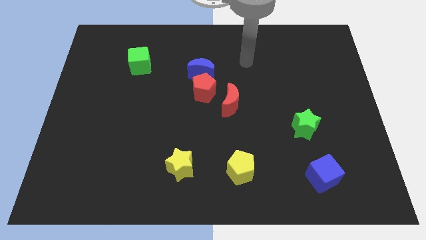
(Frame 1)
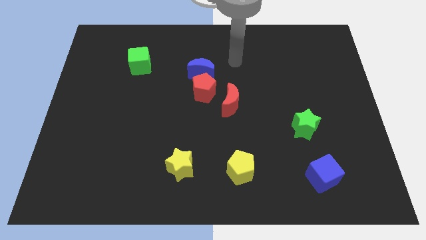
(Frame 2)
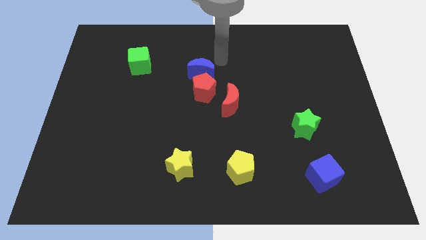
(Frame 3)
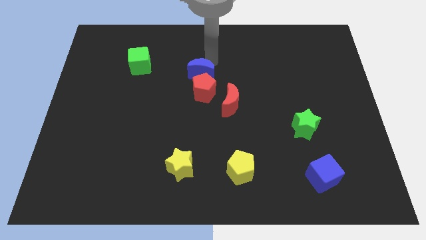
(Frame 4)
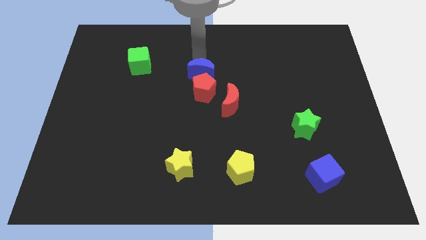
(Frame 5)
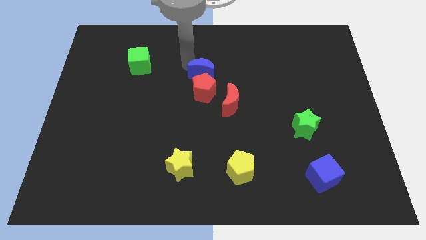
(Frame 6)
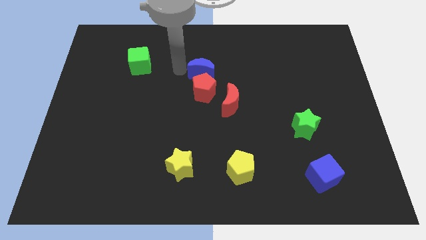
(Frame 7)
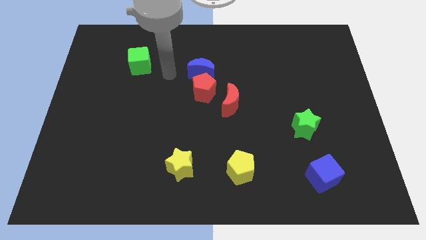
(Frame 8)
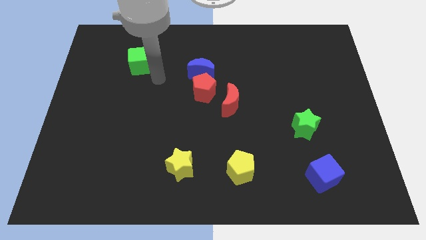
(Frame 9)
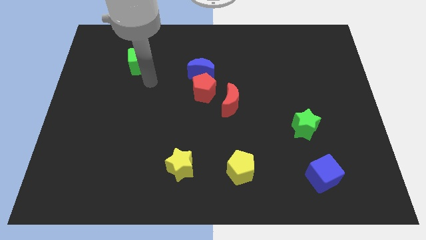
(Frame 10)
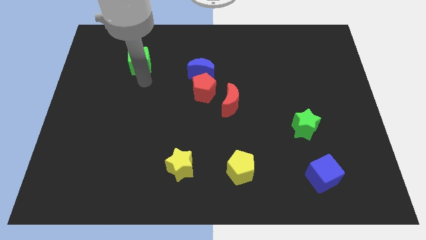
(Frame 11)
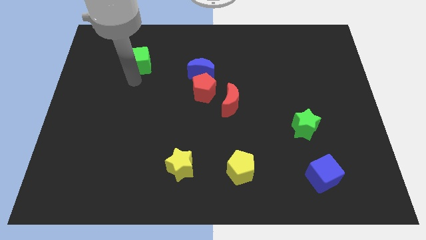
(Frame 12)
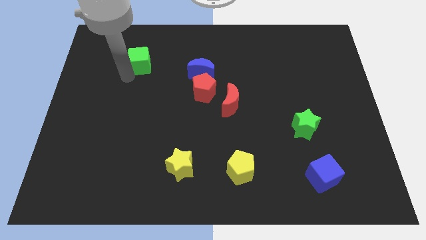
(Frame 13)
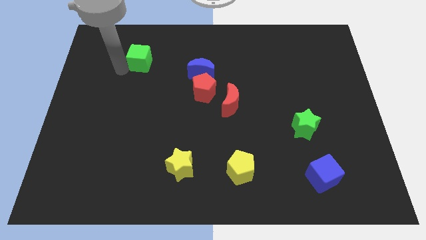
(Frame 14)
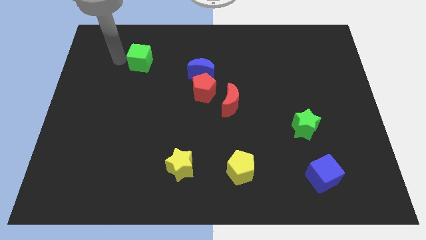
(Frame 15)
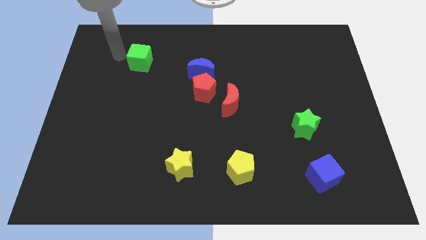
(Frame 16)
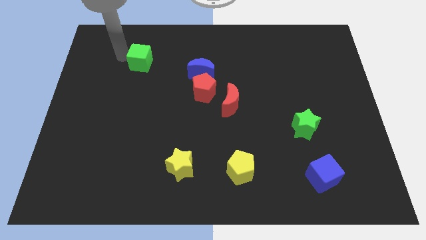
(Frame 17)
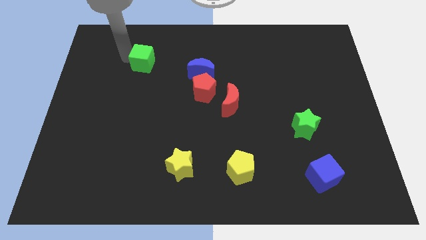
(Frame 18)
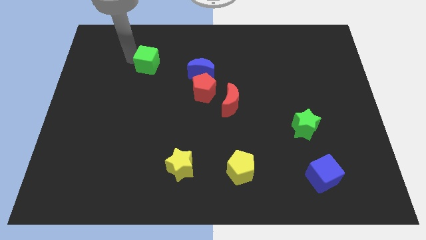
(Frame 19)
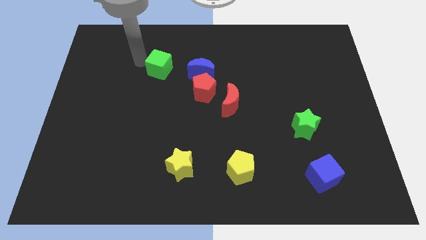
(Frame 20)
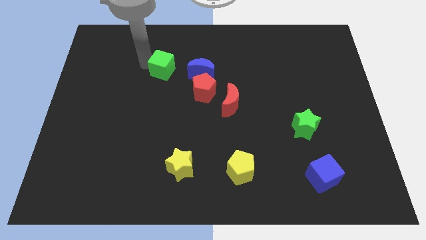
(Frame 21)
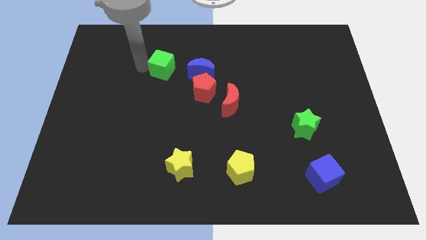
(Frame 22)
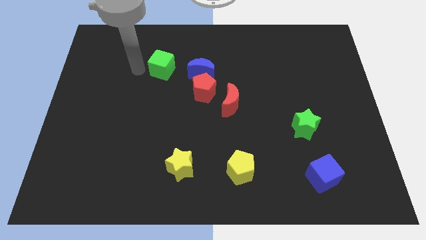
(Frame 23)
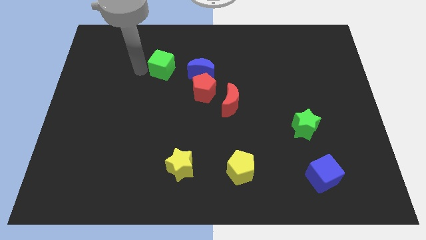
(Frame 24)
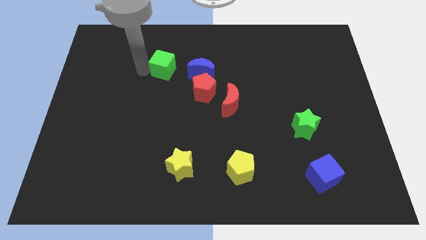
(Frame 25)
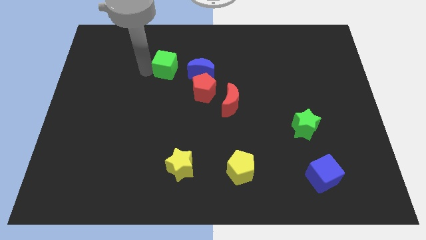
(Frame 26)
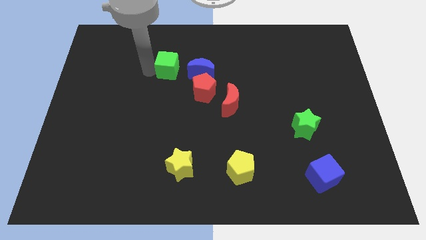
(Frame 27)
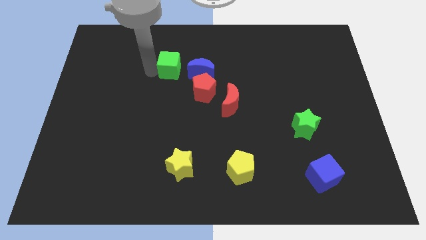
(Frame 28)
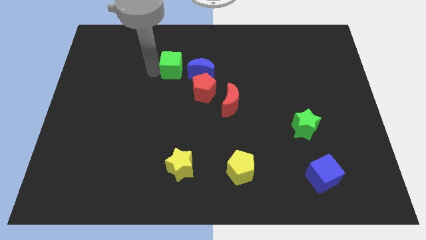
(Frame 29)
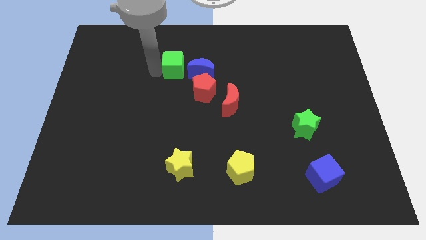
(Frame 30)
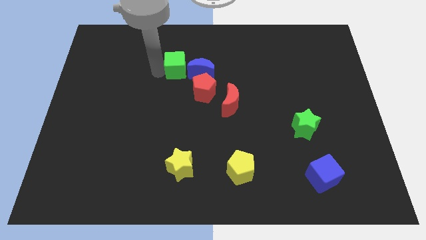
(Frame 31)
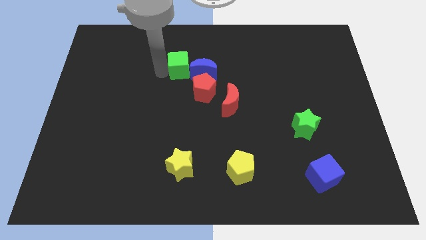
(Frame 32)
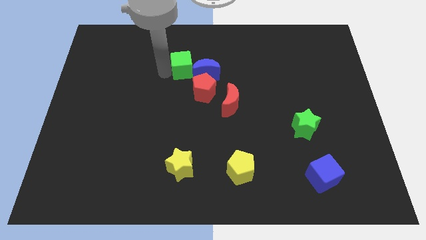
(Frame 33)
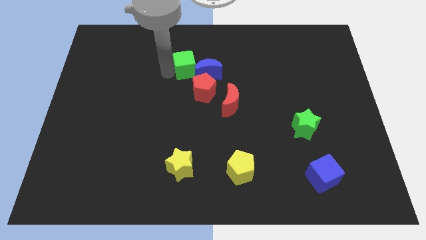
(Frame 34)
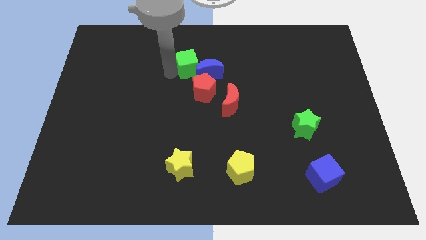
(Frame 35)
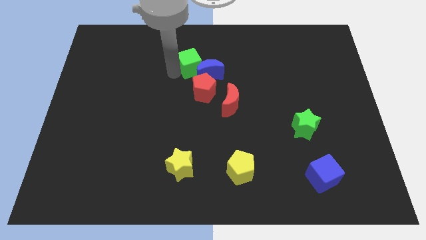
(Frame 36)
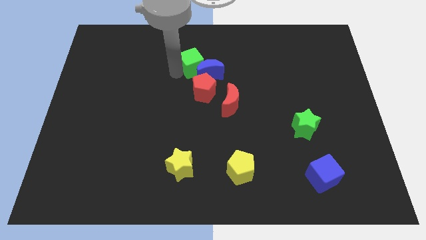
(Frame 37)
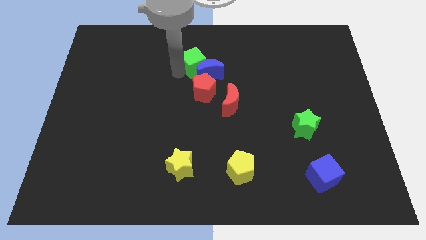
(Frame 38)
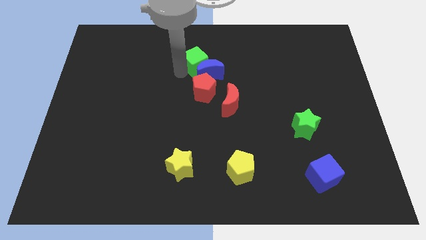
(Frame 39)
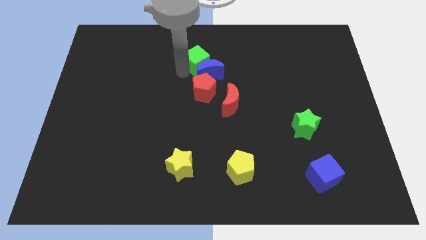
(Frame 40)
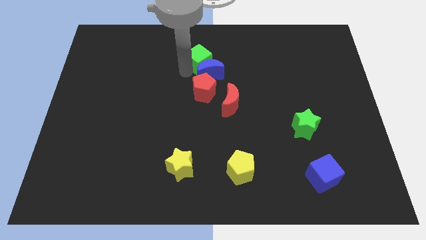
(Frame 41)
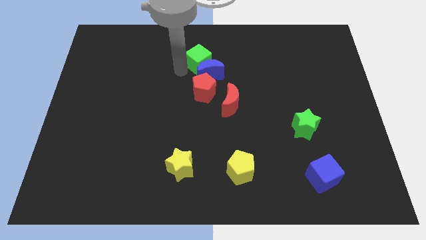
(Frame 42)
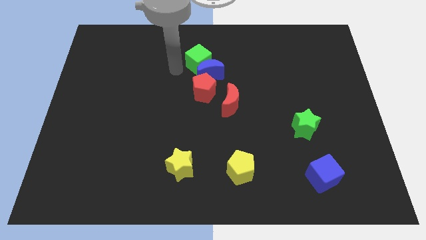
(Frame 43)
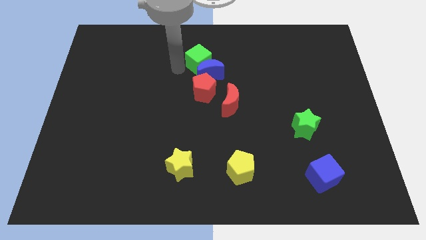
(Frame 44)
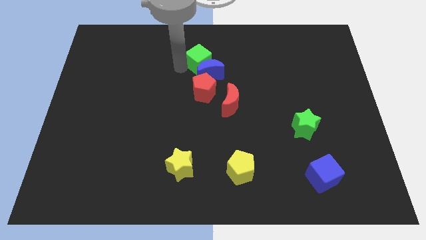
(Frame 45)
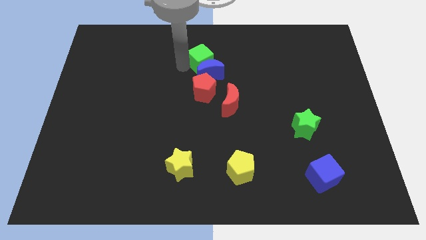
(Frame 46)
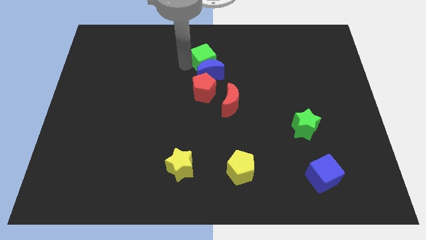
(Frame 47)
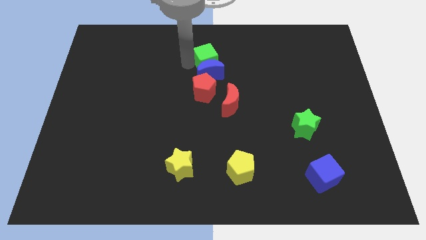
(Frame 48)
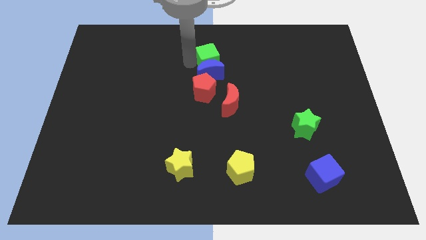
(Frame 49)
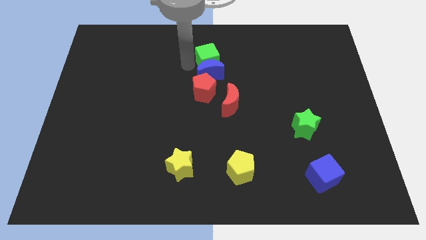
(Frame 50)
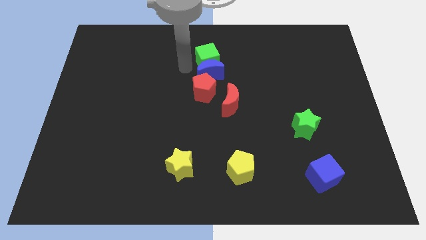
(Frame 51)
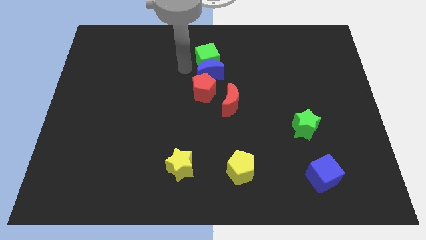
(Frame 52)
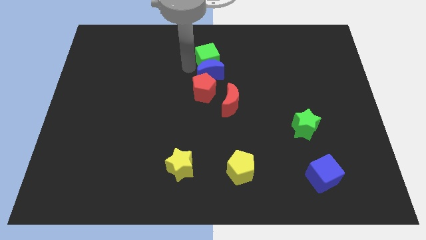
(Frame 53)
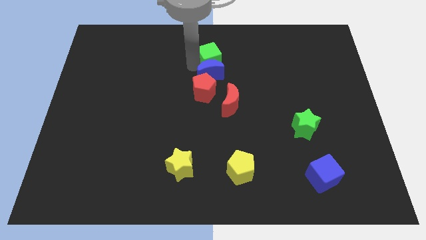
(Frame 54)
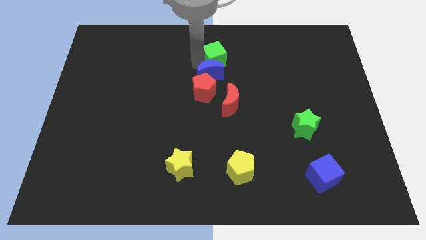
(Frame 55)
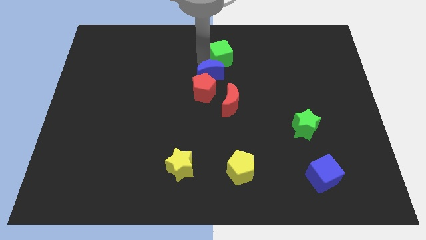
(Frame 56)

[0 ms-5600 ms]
move the green cube to the right

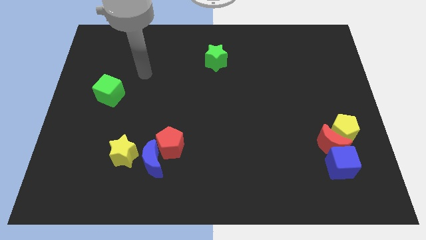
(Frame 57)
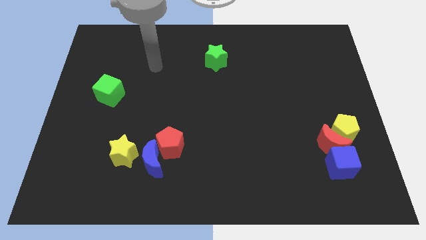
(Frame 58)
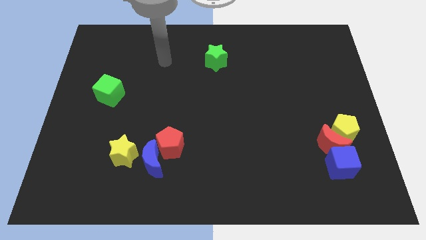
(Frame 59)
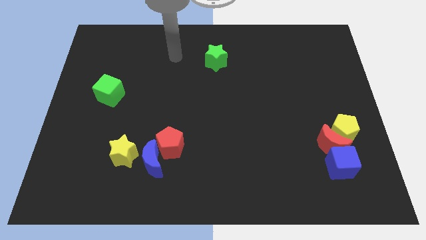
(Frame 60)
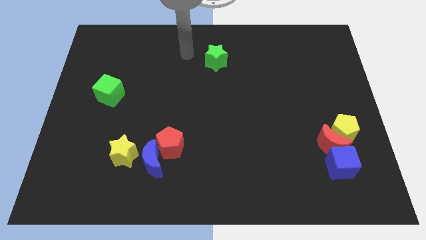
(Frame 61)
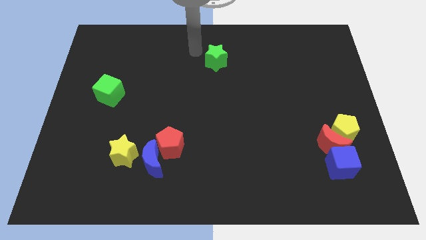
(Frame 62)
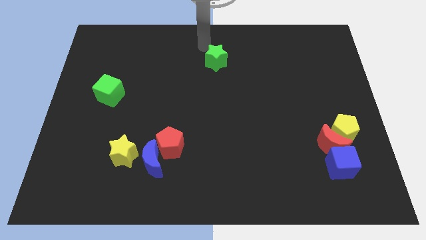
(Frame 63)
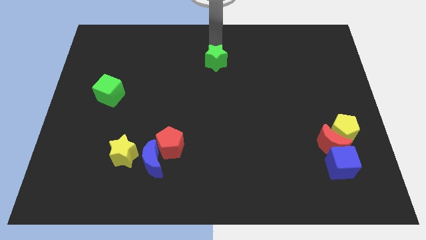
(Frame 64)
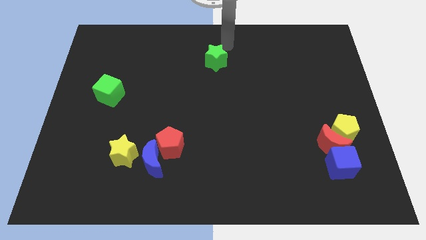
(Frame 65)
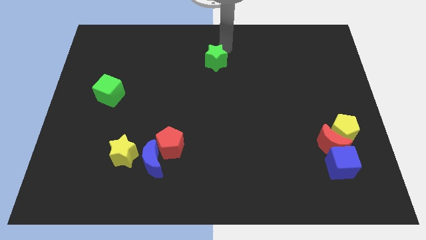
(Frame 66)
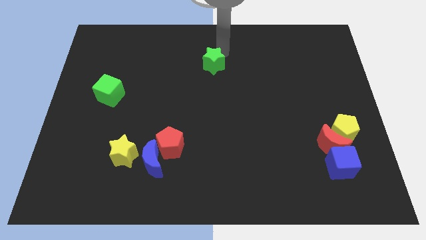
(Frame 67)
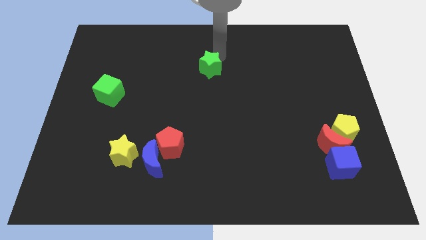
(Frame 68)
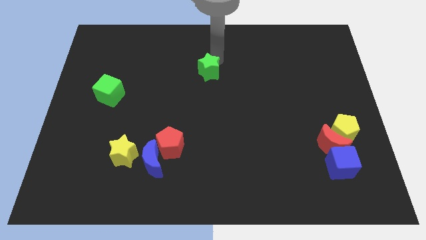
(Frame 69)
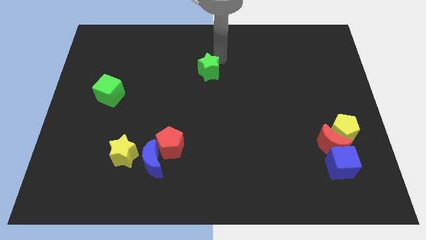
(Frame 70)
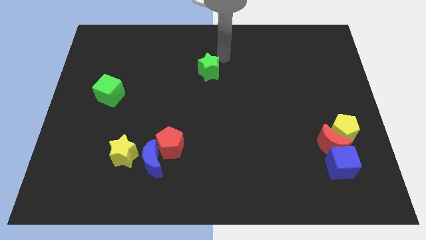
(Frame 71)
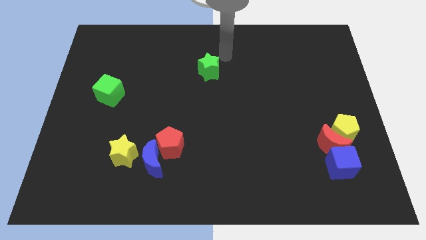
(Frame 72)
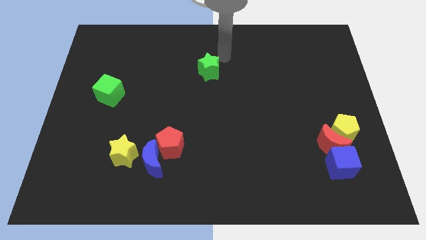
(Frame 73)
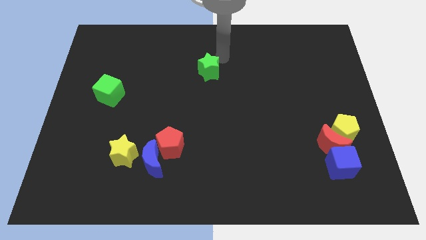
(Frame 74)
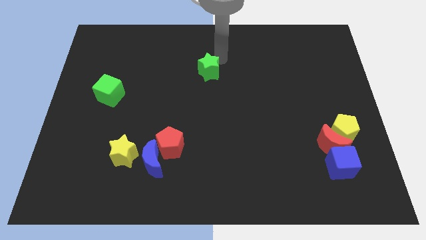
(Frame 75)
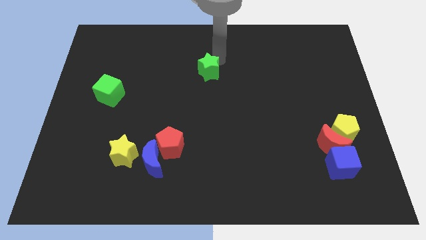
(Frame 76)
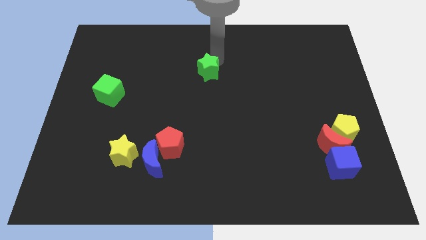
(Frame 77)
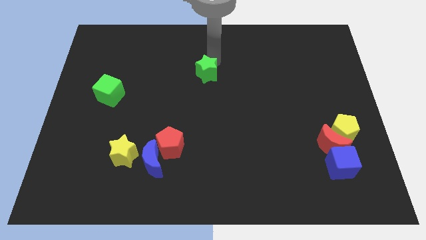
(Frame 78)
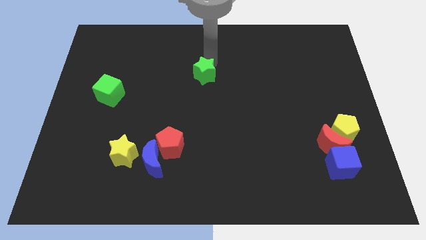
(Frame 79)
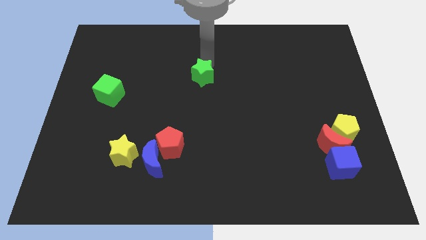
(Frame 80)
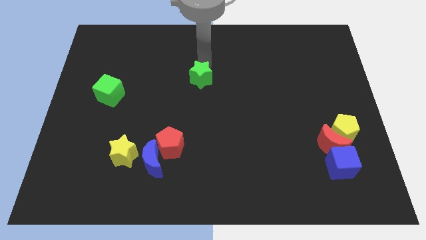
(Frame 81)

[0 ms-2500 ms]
move the green star downwards and left somewhat

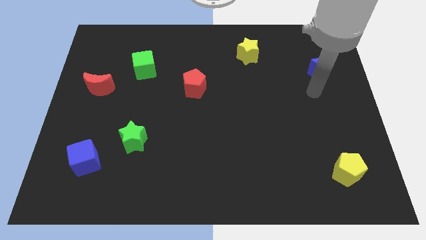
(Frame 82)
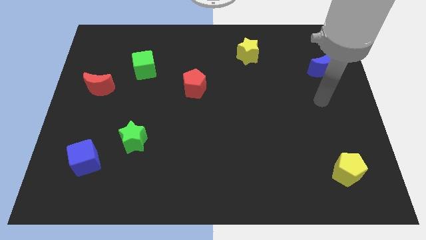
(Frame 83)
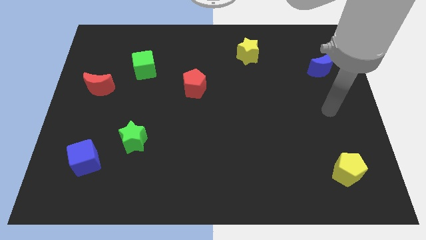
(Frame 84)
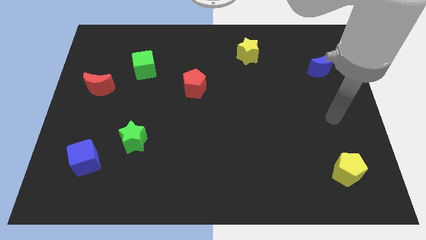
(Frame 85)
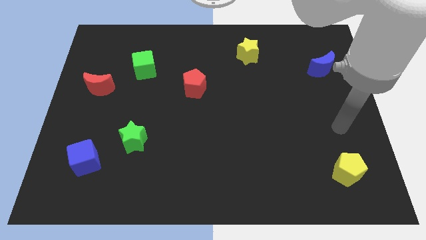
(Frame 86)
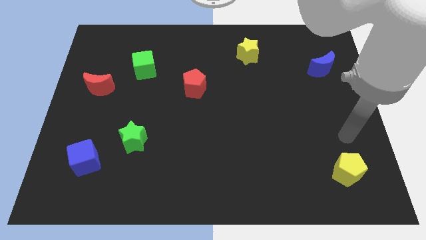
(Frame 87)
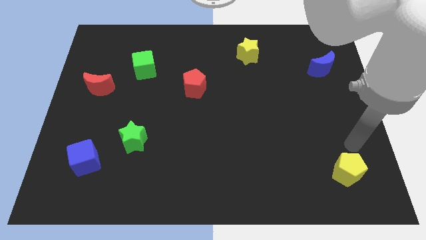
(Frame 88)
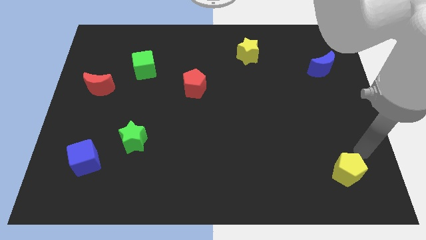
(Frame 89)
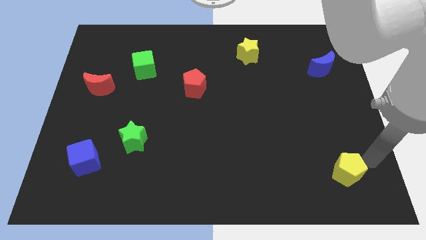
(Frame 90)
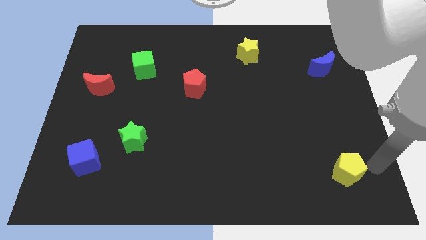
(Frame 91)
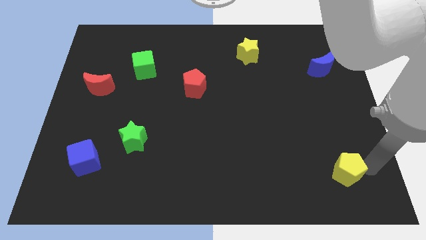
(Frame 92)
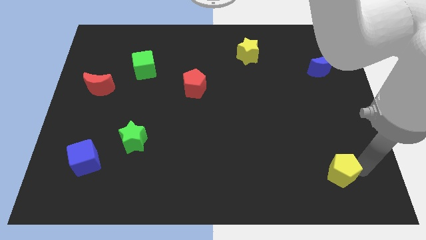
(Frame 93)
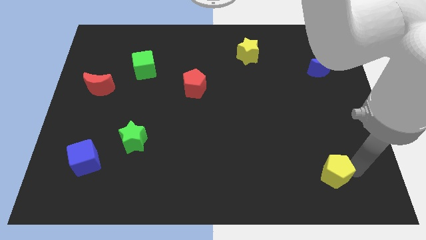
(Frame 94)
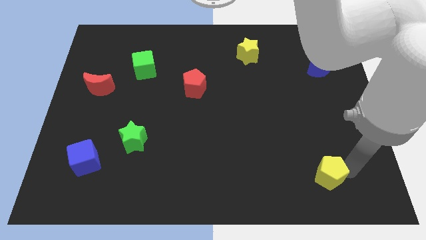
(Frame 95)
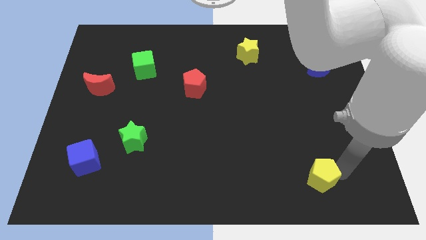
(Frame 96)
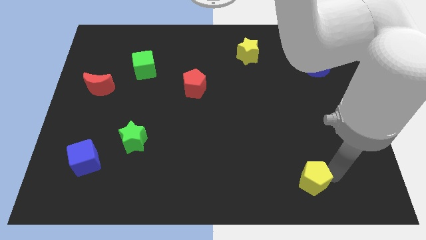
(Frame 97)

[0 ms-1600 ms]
slightly slide the yellow pentagon to the left
